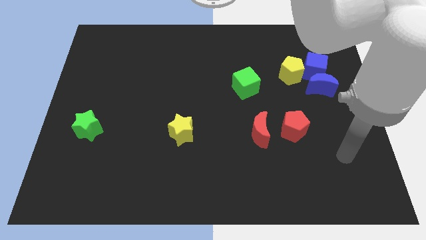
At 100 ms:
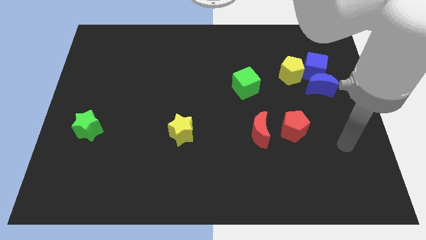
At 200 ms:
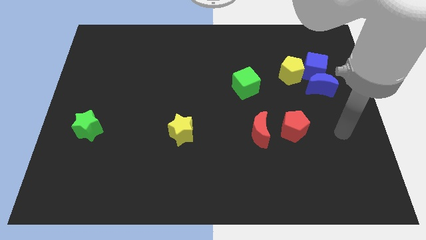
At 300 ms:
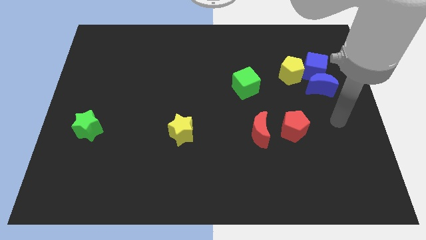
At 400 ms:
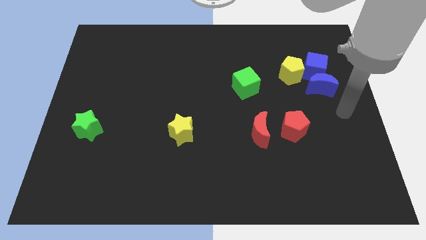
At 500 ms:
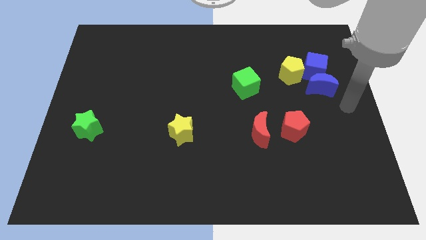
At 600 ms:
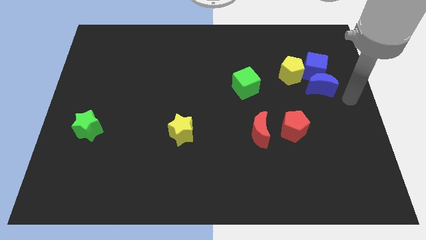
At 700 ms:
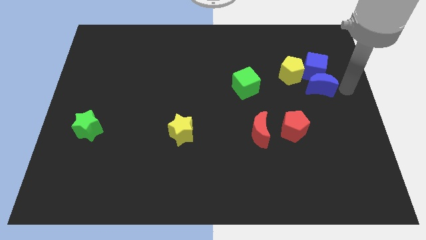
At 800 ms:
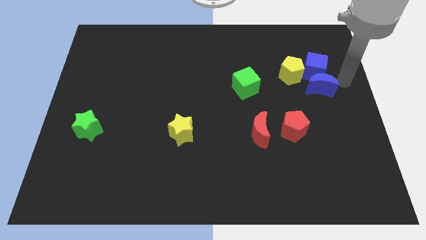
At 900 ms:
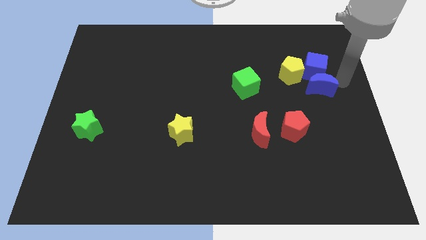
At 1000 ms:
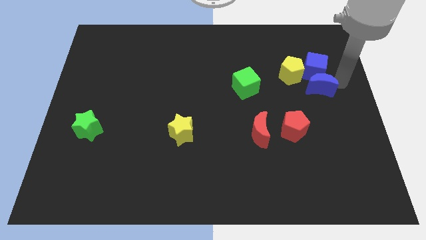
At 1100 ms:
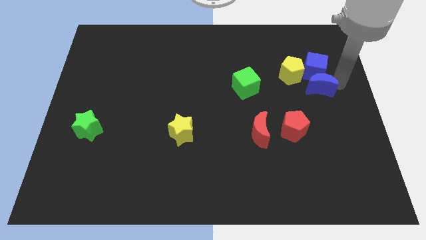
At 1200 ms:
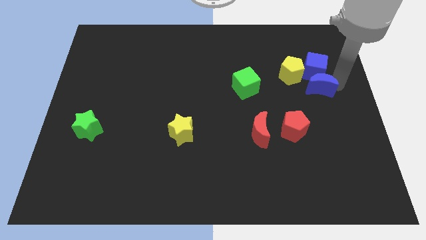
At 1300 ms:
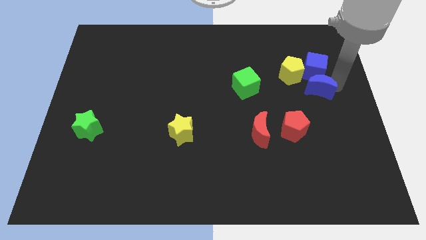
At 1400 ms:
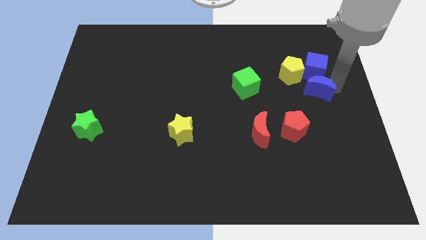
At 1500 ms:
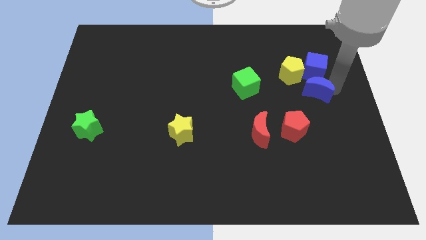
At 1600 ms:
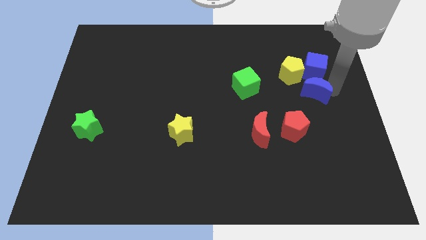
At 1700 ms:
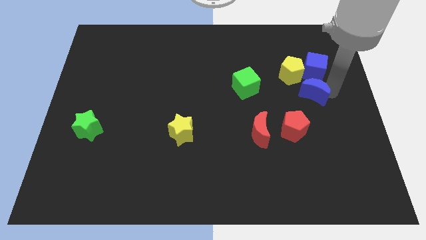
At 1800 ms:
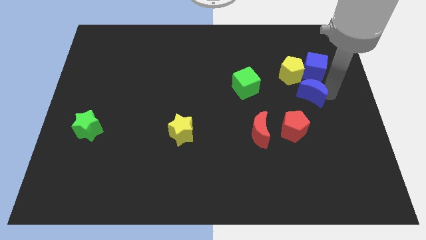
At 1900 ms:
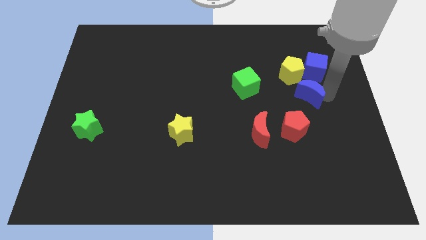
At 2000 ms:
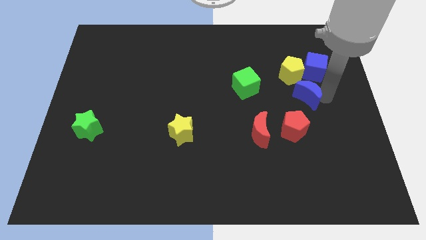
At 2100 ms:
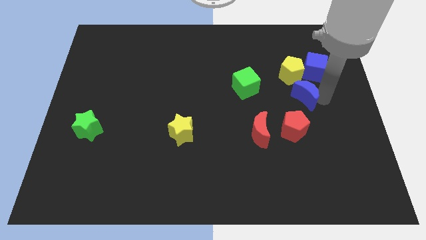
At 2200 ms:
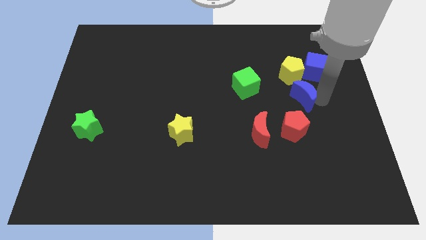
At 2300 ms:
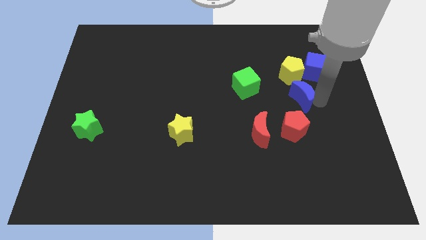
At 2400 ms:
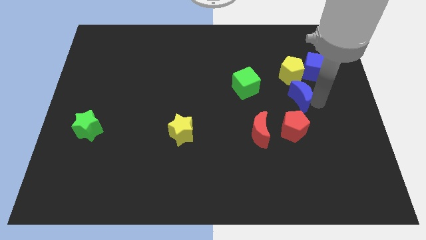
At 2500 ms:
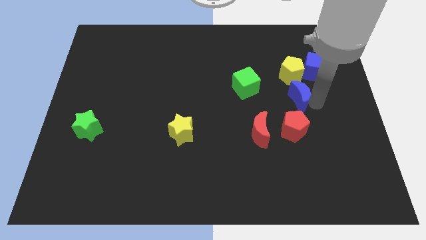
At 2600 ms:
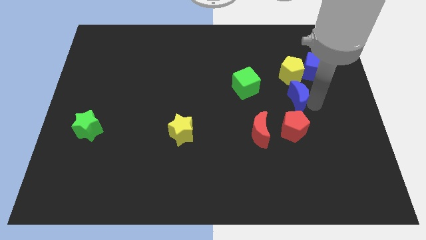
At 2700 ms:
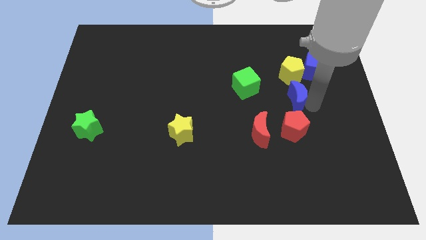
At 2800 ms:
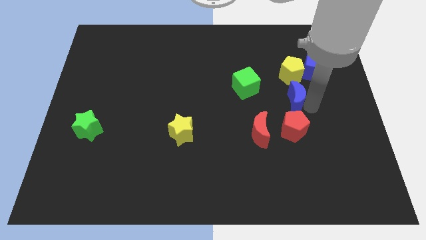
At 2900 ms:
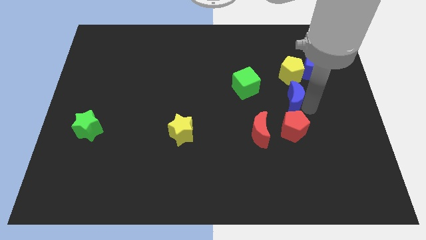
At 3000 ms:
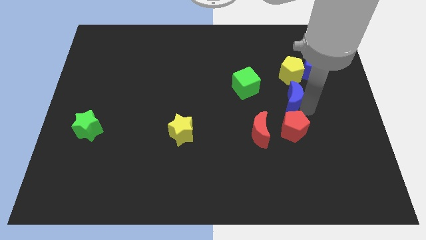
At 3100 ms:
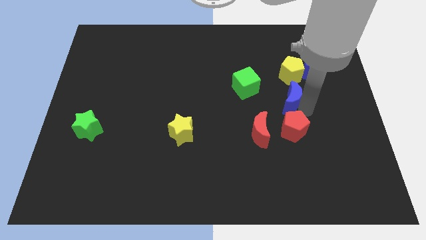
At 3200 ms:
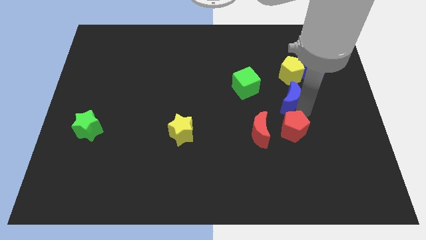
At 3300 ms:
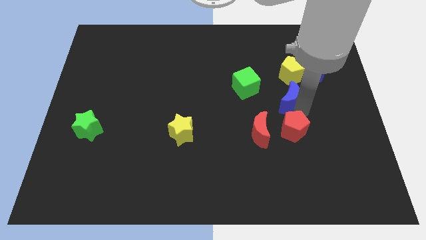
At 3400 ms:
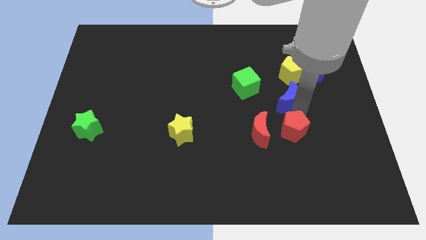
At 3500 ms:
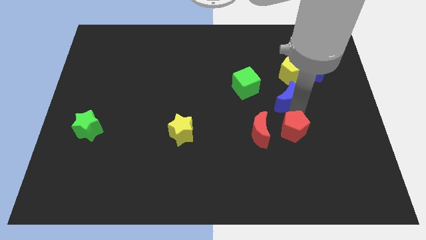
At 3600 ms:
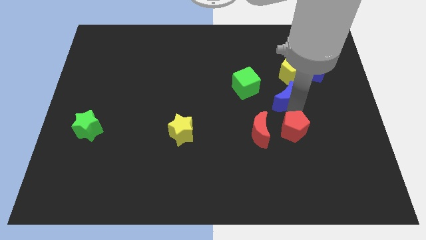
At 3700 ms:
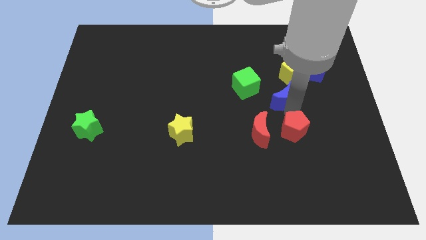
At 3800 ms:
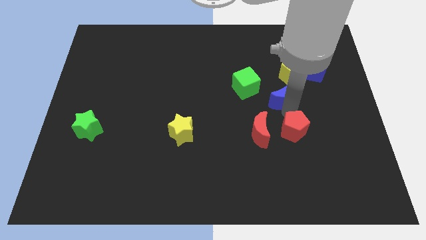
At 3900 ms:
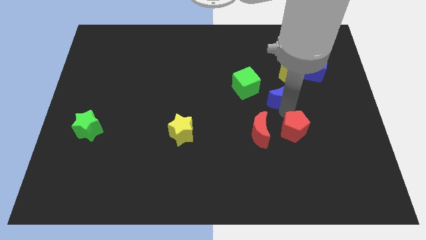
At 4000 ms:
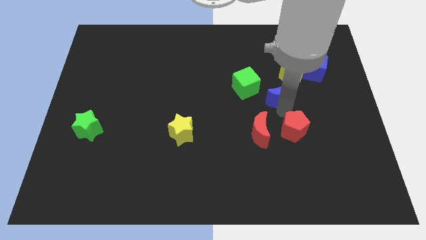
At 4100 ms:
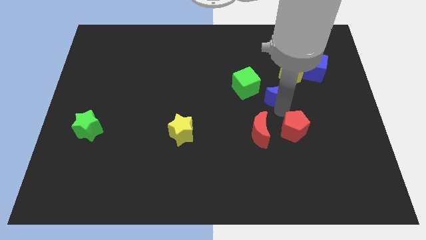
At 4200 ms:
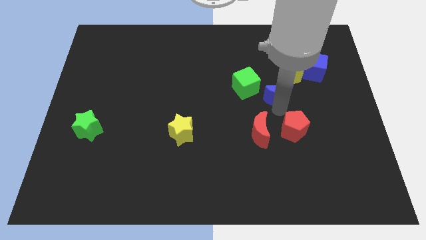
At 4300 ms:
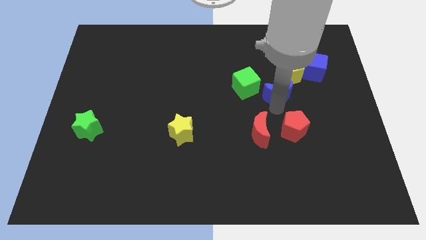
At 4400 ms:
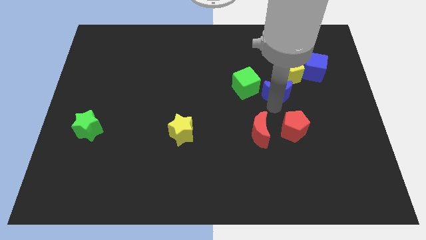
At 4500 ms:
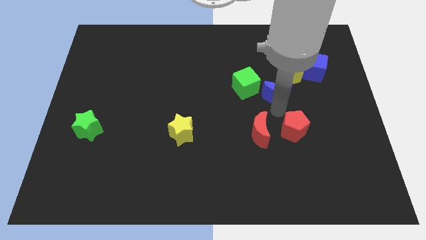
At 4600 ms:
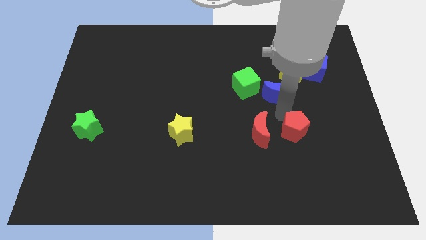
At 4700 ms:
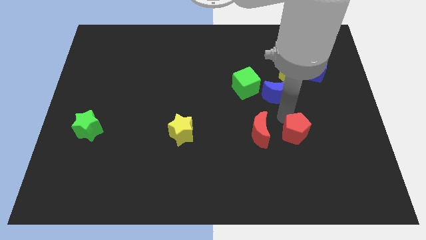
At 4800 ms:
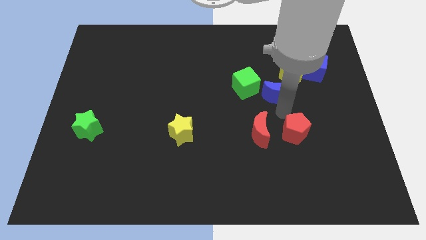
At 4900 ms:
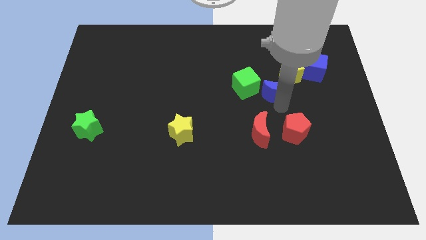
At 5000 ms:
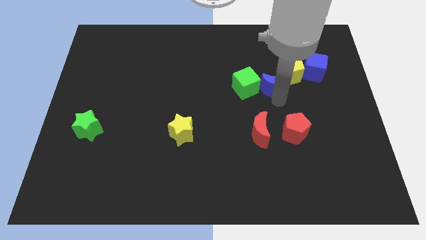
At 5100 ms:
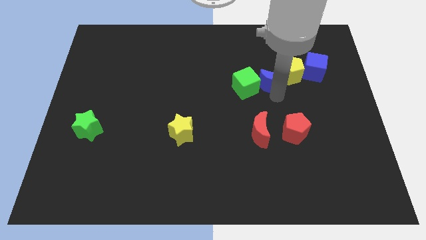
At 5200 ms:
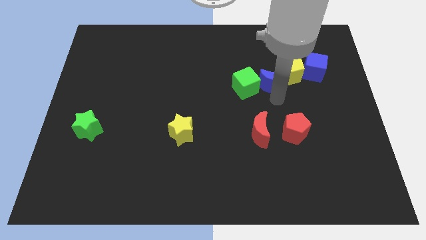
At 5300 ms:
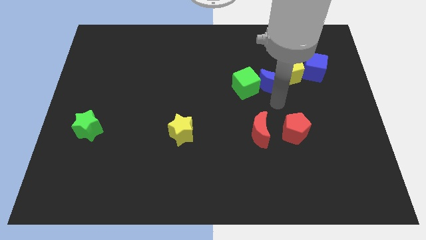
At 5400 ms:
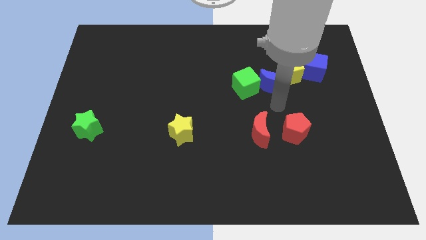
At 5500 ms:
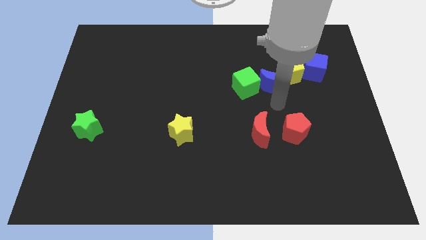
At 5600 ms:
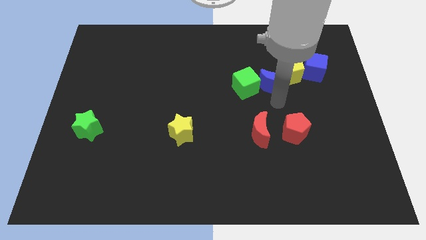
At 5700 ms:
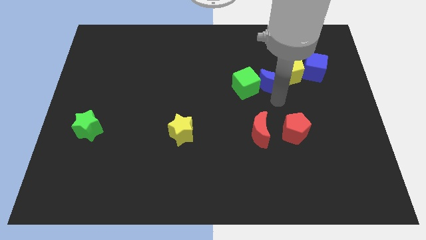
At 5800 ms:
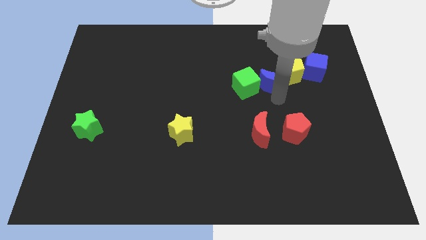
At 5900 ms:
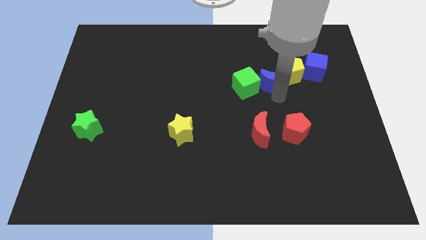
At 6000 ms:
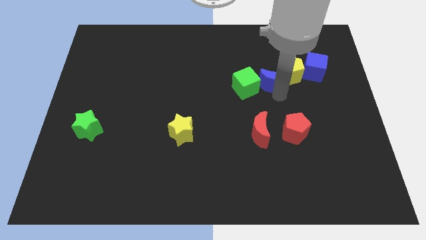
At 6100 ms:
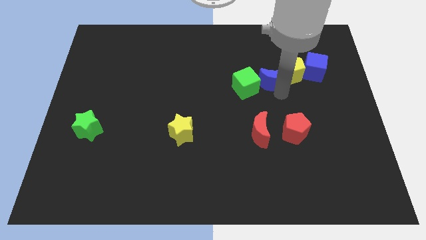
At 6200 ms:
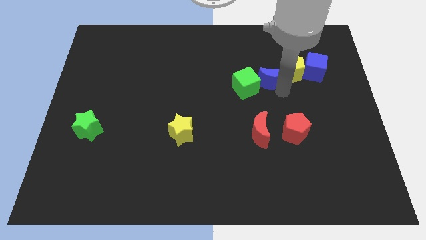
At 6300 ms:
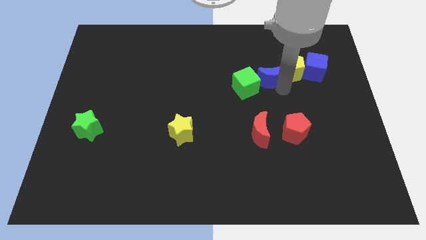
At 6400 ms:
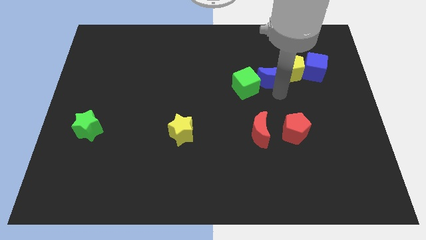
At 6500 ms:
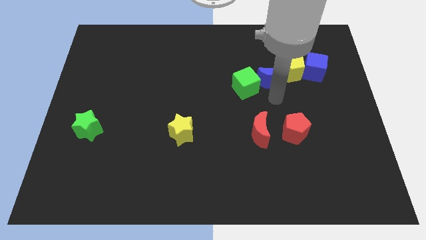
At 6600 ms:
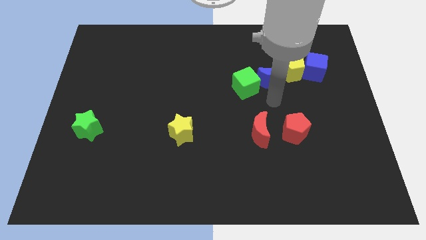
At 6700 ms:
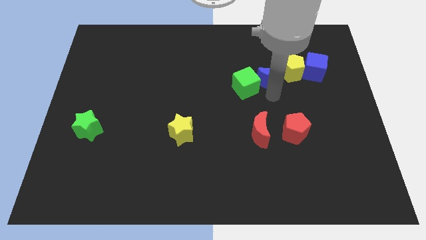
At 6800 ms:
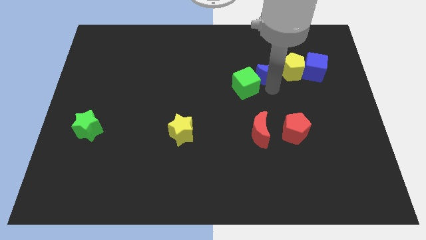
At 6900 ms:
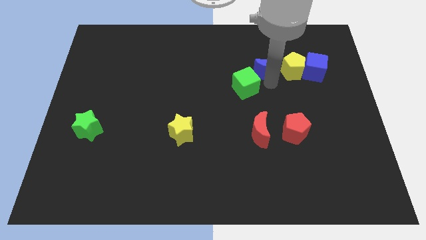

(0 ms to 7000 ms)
slide the blue moon to the top left side of the yellow pentagon
